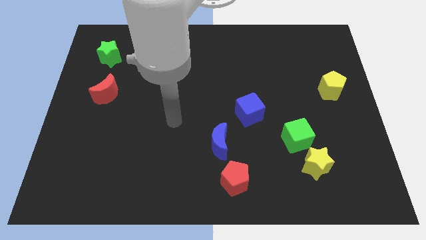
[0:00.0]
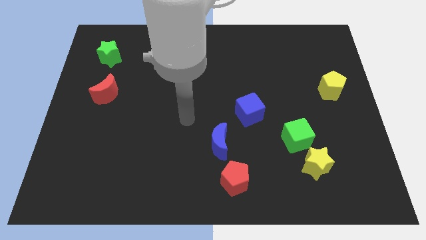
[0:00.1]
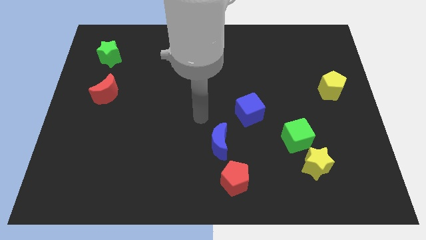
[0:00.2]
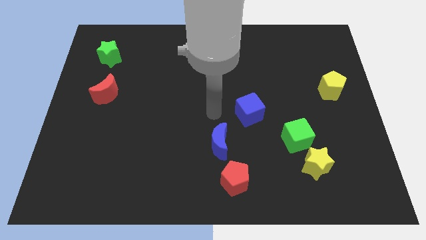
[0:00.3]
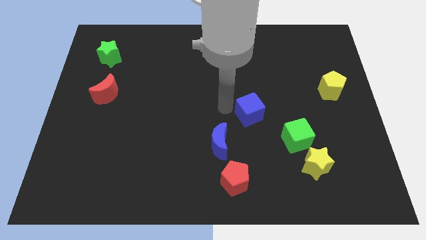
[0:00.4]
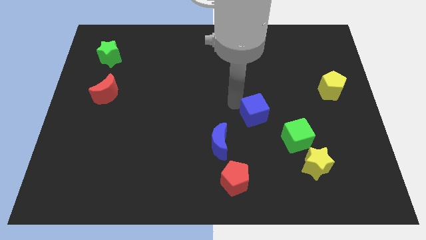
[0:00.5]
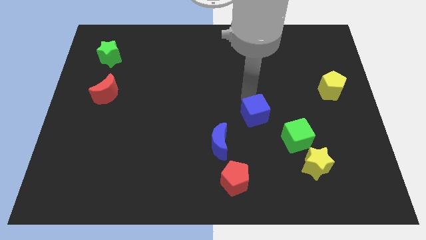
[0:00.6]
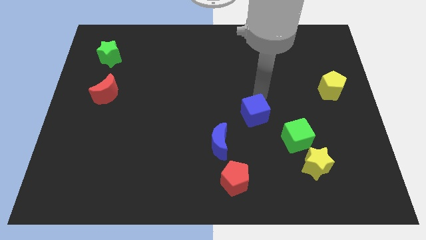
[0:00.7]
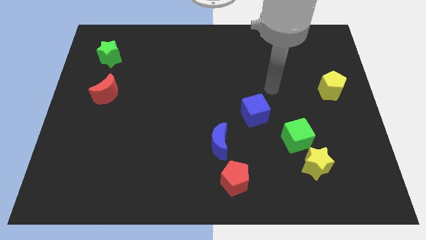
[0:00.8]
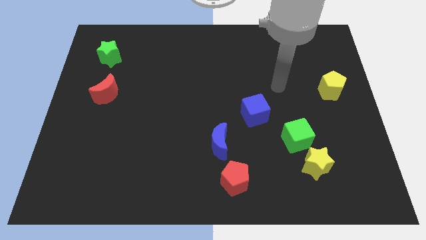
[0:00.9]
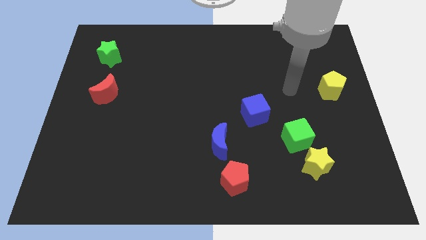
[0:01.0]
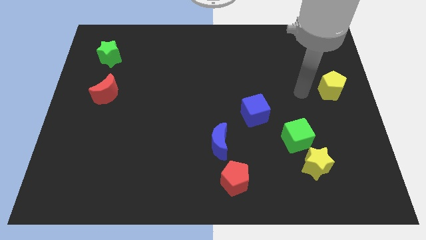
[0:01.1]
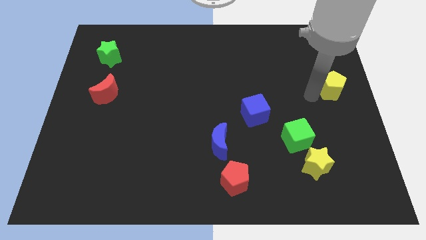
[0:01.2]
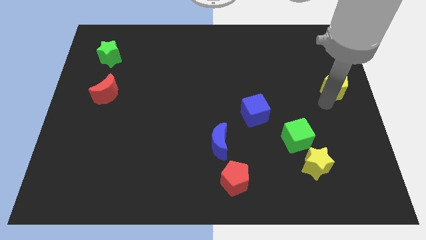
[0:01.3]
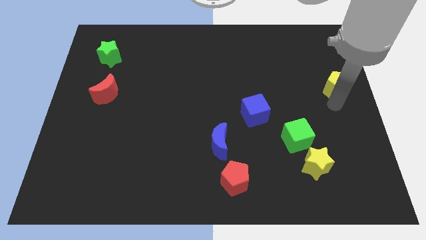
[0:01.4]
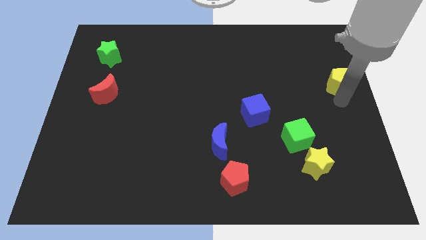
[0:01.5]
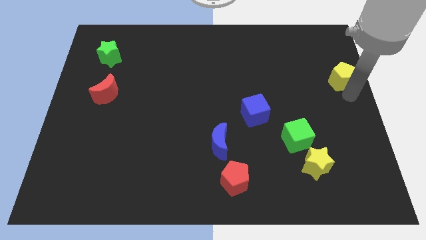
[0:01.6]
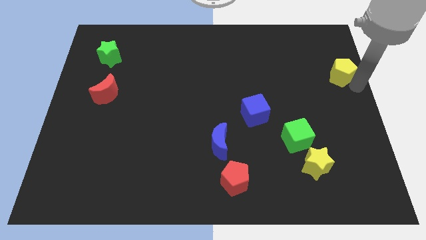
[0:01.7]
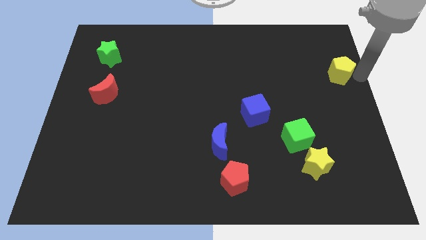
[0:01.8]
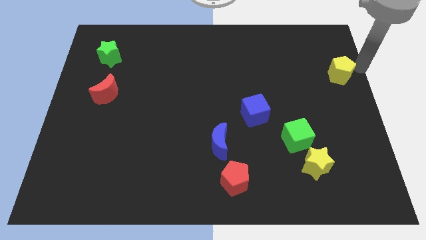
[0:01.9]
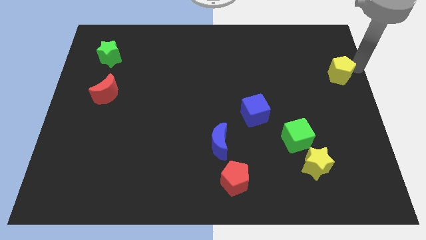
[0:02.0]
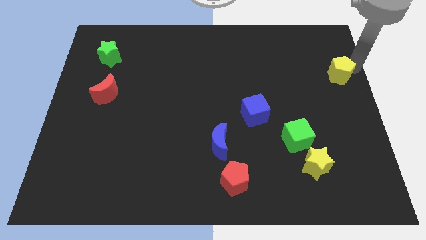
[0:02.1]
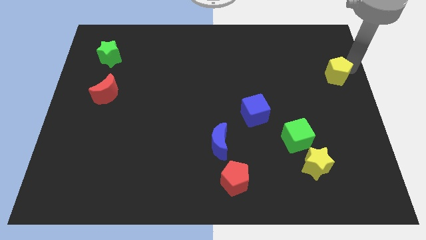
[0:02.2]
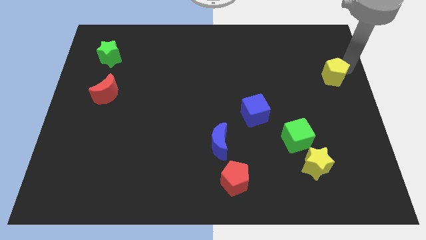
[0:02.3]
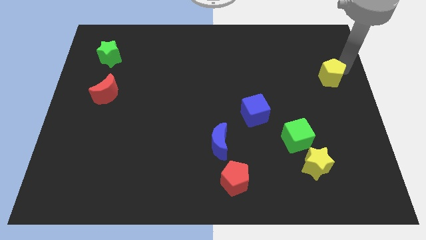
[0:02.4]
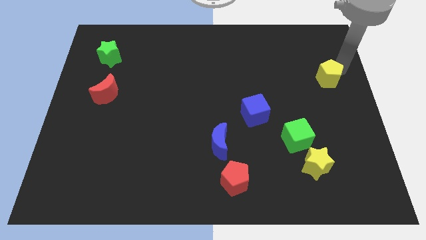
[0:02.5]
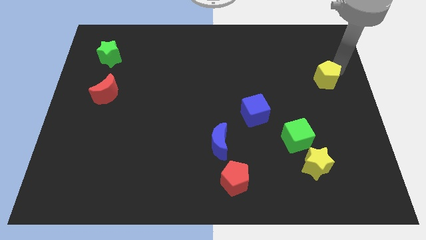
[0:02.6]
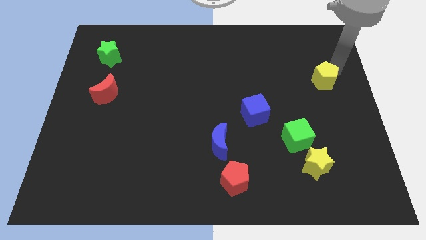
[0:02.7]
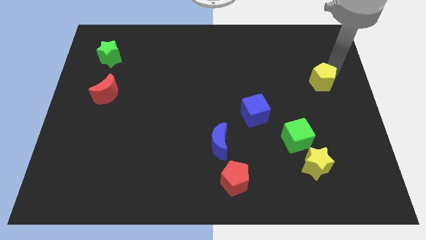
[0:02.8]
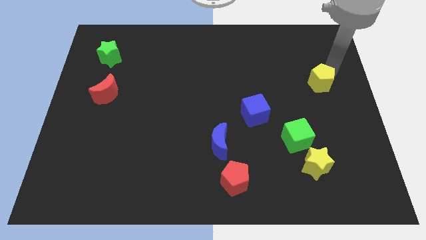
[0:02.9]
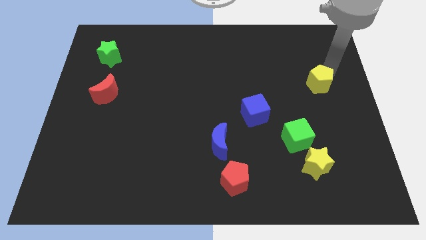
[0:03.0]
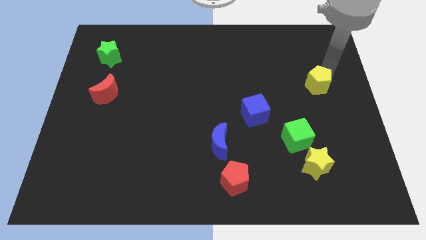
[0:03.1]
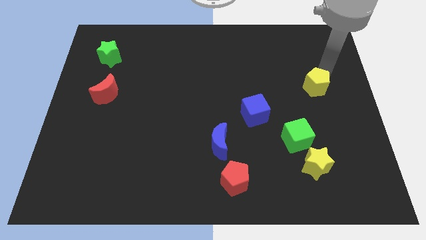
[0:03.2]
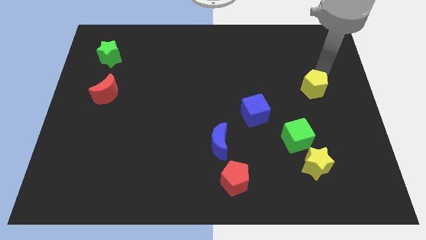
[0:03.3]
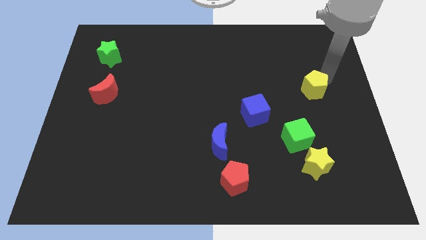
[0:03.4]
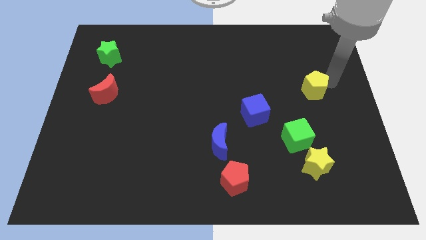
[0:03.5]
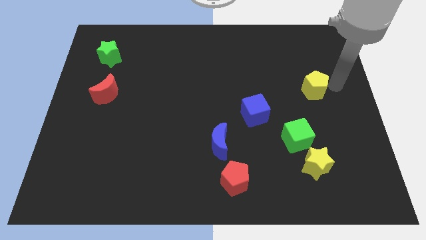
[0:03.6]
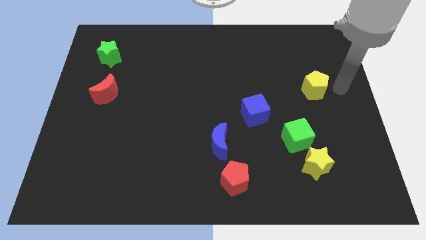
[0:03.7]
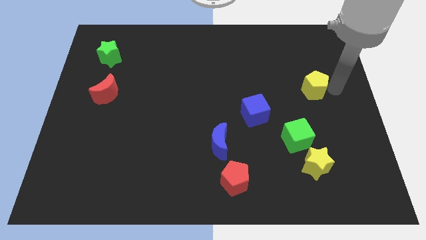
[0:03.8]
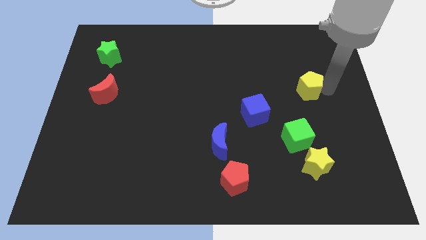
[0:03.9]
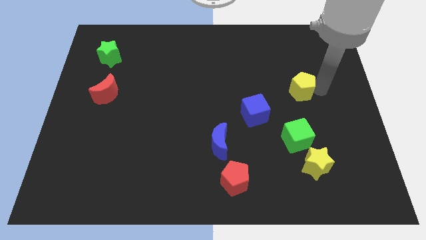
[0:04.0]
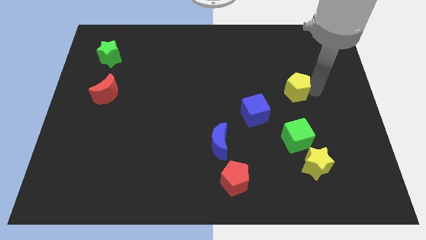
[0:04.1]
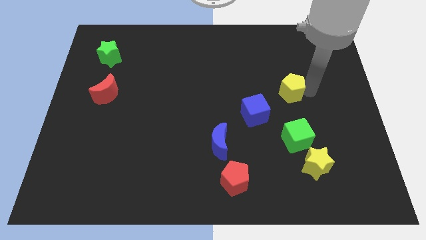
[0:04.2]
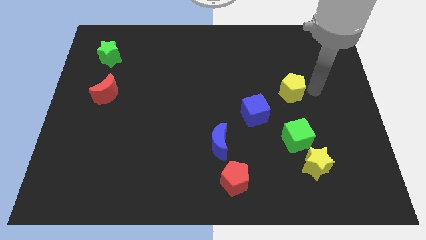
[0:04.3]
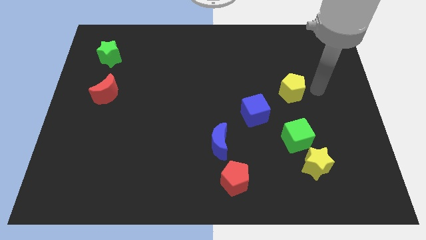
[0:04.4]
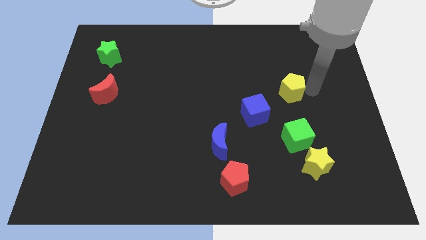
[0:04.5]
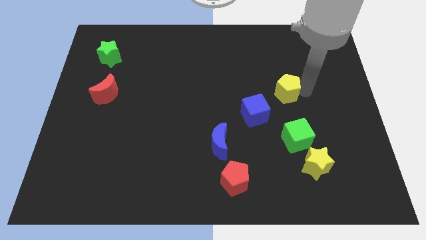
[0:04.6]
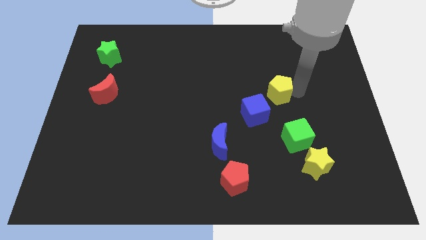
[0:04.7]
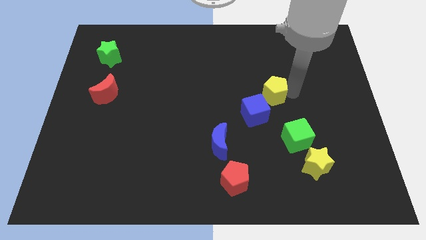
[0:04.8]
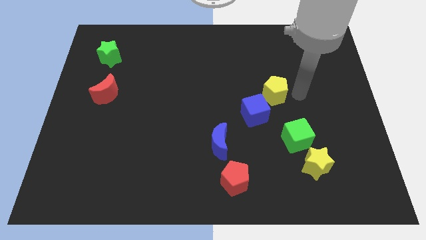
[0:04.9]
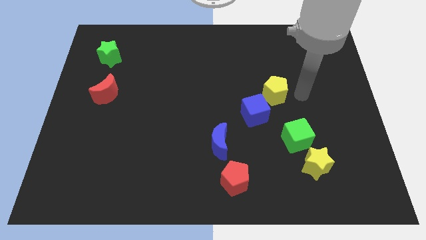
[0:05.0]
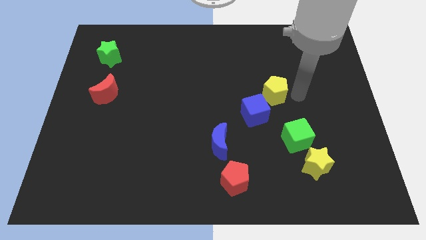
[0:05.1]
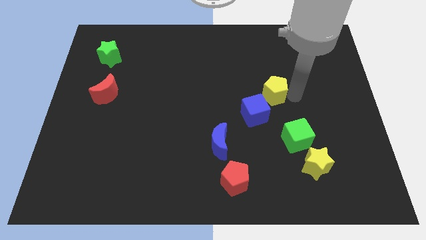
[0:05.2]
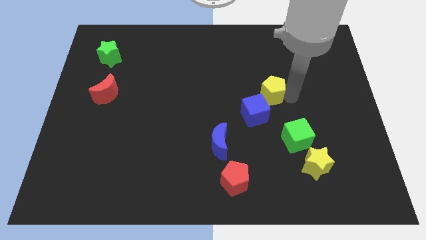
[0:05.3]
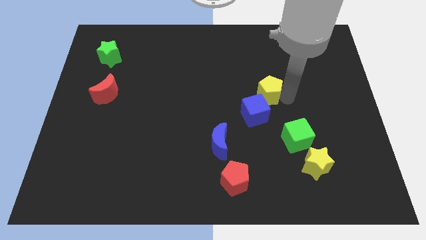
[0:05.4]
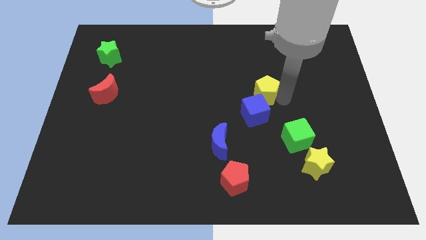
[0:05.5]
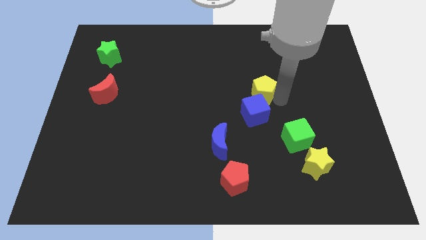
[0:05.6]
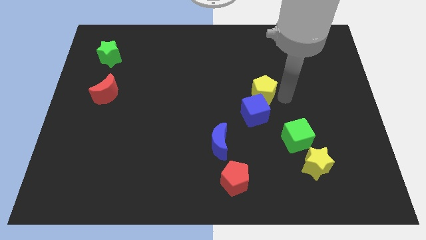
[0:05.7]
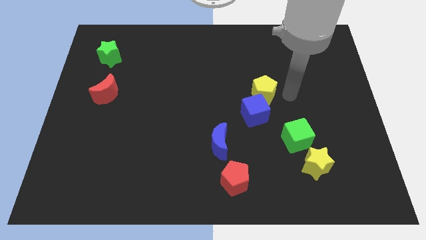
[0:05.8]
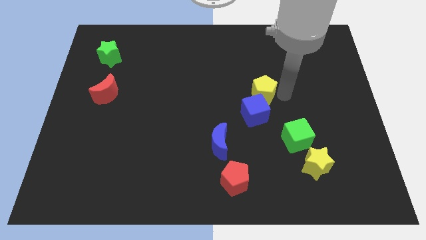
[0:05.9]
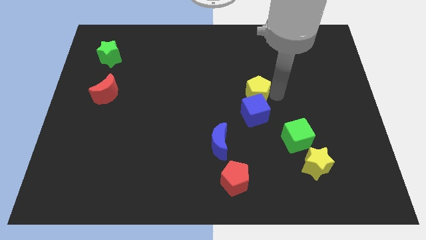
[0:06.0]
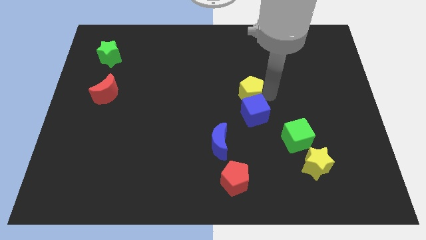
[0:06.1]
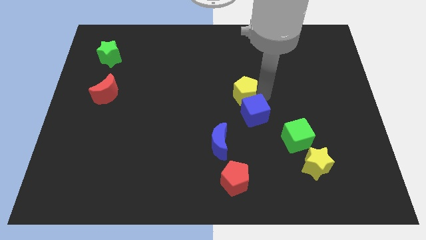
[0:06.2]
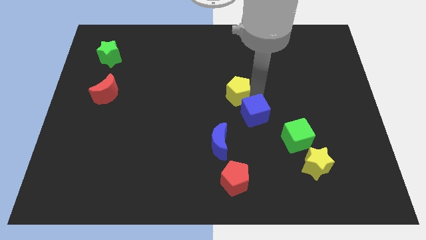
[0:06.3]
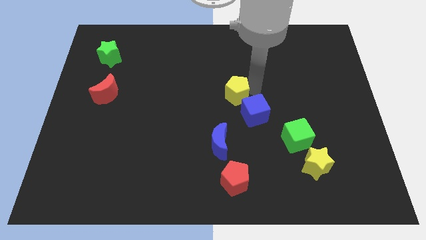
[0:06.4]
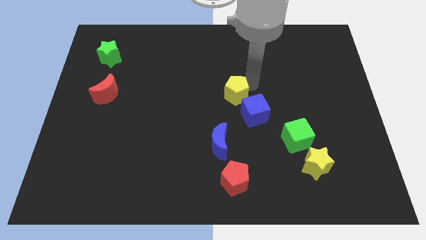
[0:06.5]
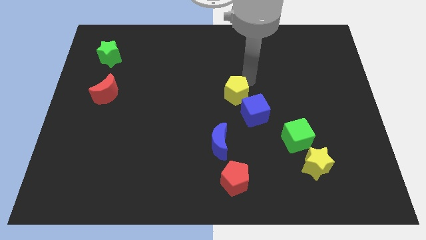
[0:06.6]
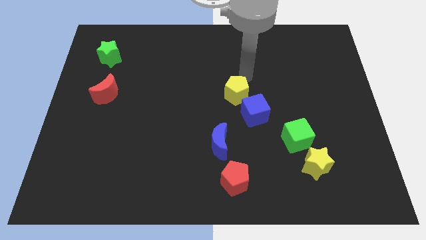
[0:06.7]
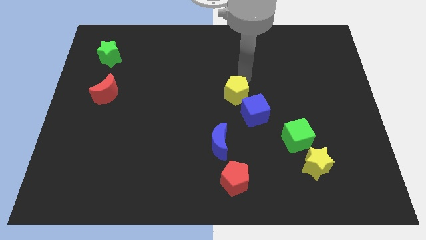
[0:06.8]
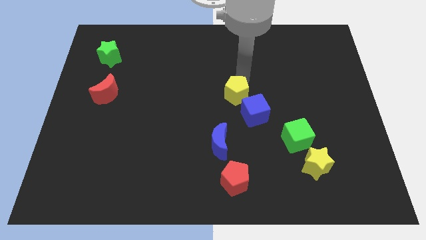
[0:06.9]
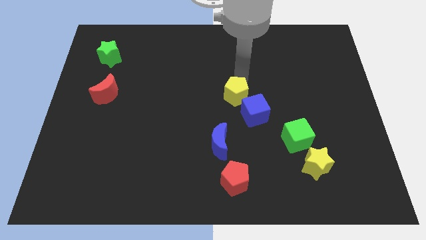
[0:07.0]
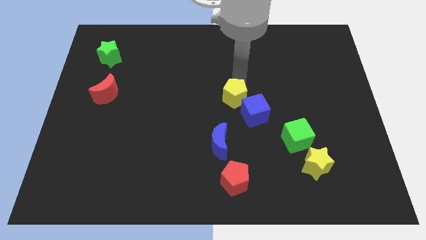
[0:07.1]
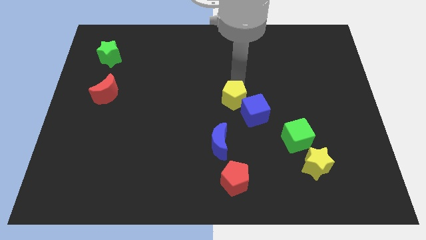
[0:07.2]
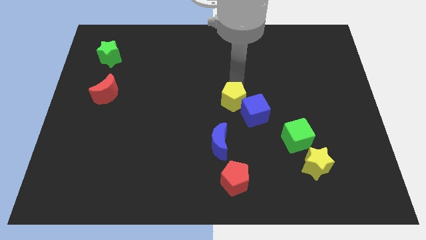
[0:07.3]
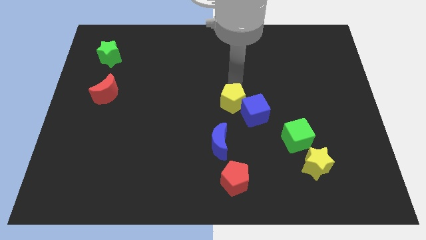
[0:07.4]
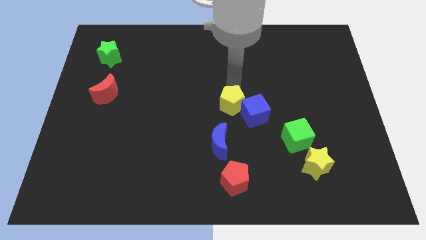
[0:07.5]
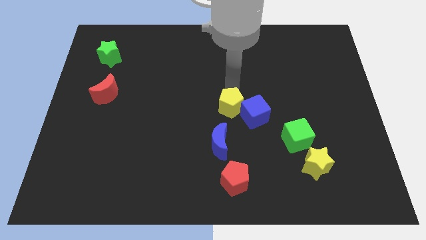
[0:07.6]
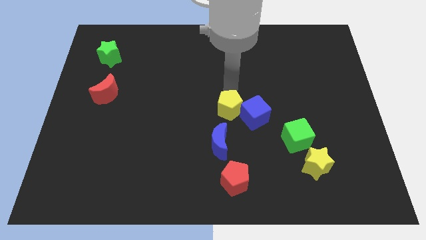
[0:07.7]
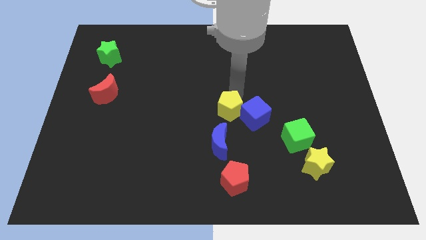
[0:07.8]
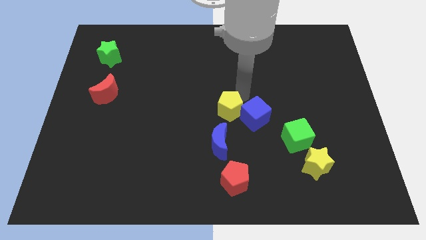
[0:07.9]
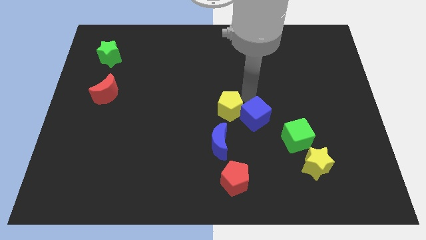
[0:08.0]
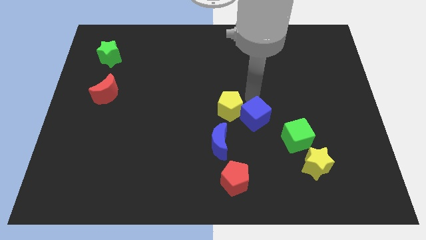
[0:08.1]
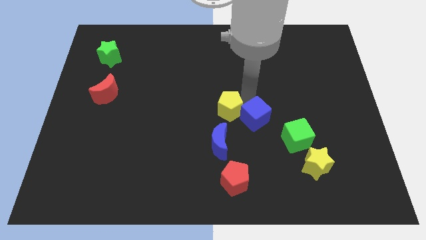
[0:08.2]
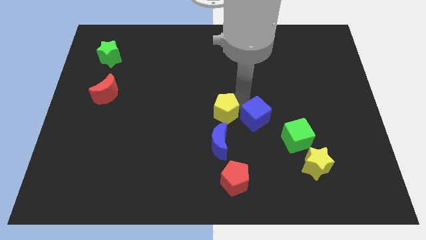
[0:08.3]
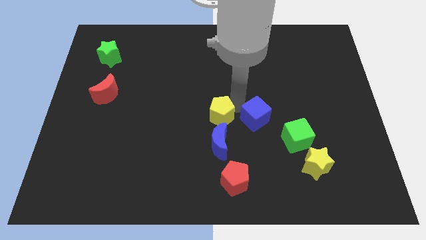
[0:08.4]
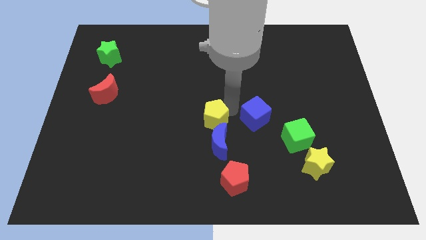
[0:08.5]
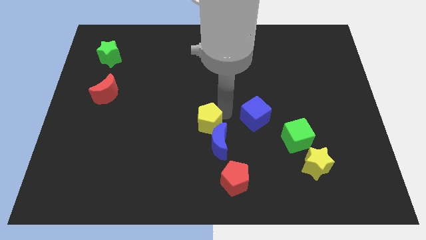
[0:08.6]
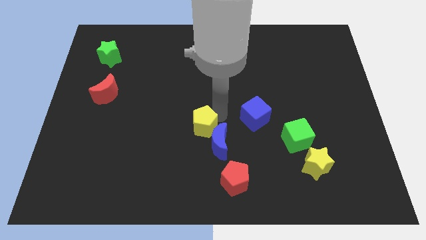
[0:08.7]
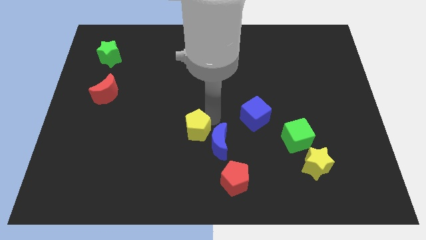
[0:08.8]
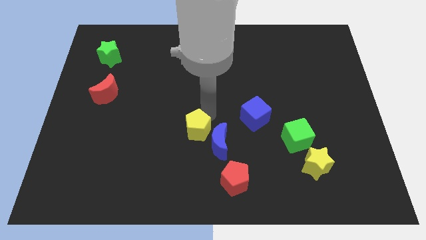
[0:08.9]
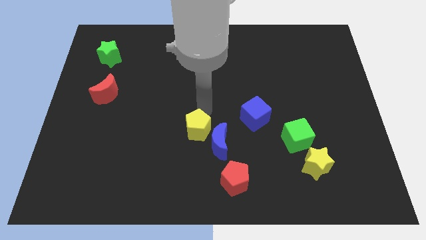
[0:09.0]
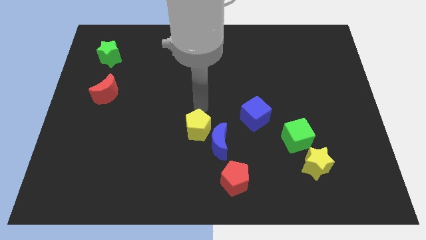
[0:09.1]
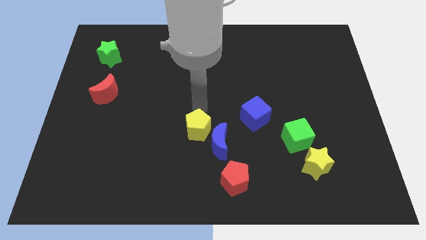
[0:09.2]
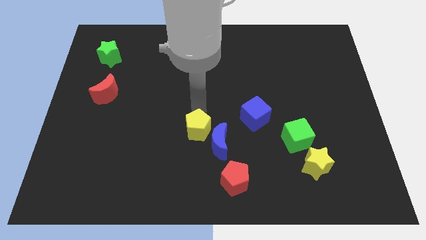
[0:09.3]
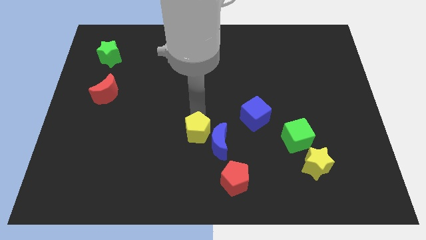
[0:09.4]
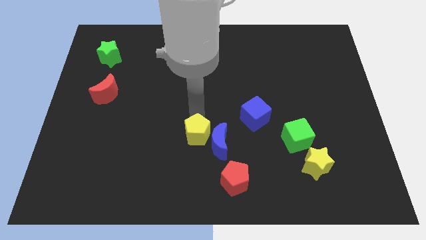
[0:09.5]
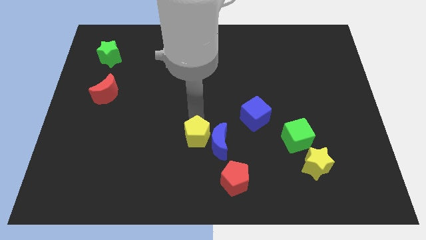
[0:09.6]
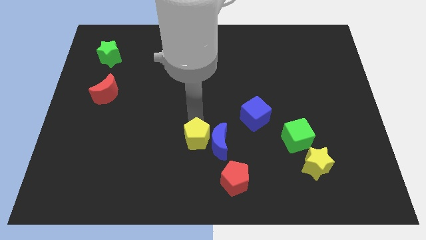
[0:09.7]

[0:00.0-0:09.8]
put the yellow pentagon to the top left of the red pentagon
